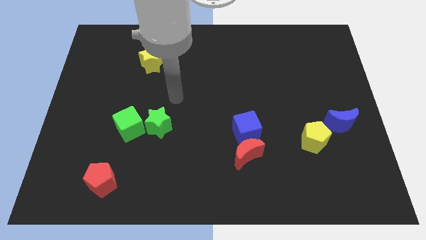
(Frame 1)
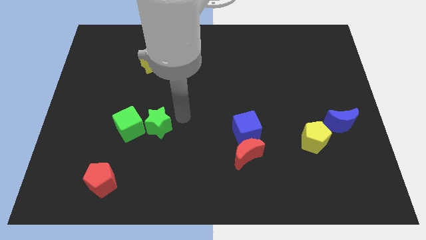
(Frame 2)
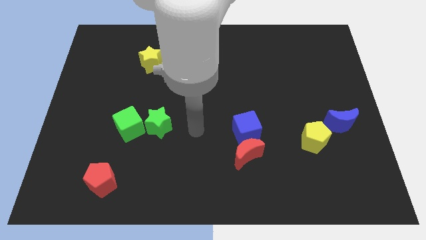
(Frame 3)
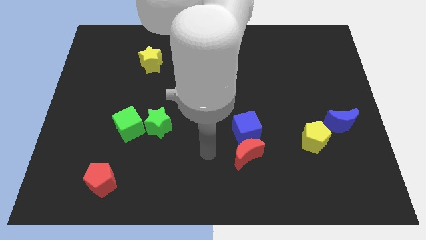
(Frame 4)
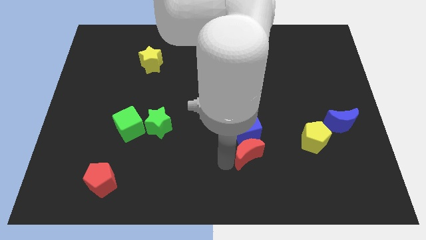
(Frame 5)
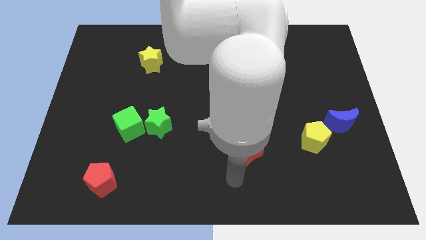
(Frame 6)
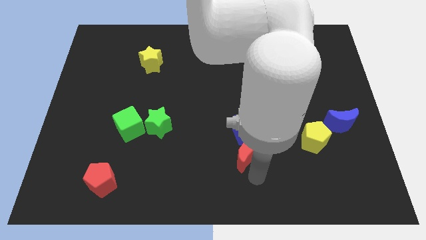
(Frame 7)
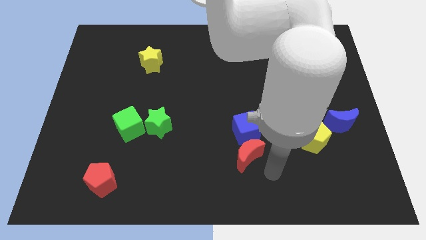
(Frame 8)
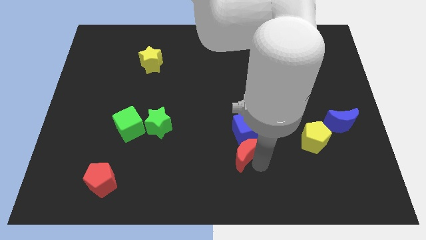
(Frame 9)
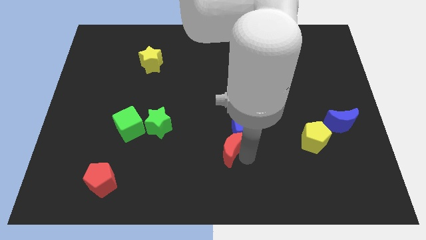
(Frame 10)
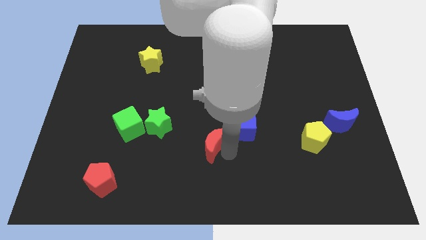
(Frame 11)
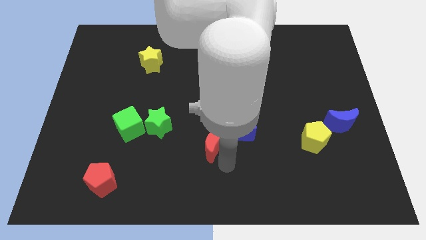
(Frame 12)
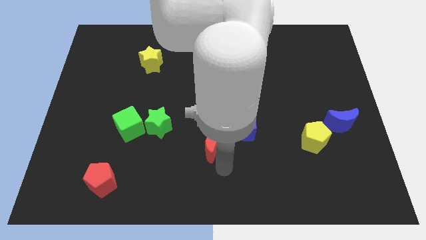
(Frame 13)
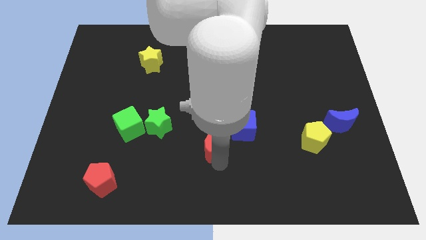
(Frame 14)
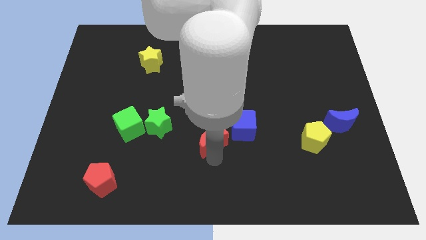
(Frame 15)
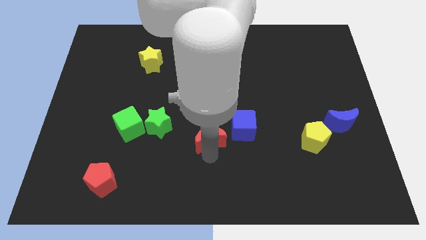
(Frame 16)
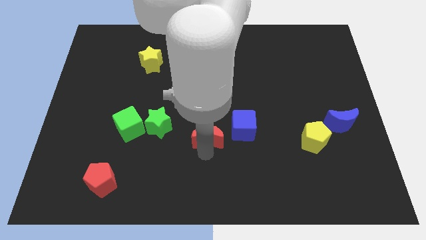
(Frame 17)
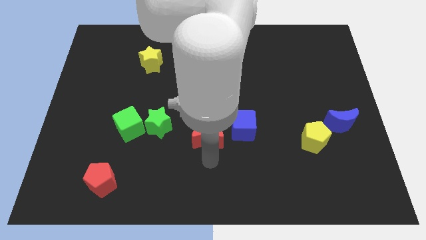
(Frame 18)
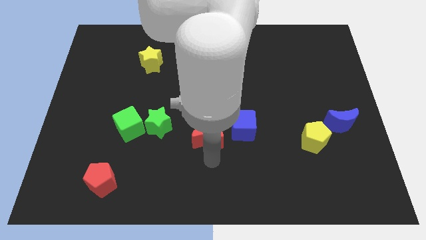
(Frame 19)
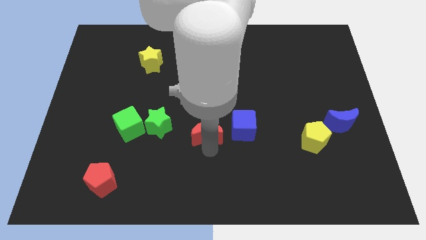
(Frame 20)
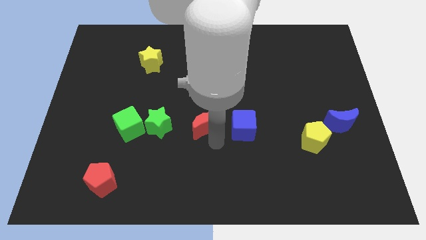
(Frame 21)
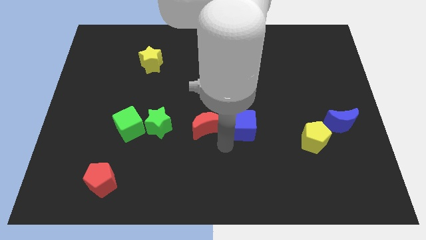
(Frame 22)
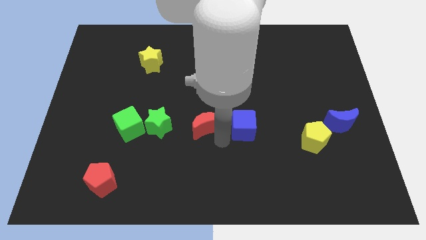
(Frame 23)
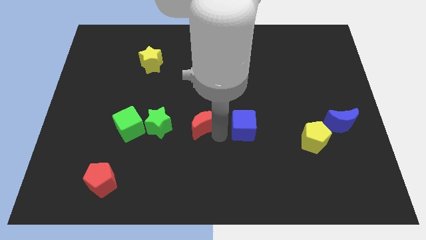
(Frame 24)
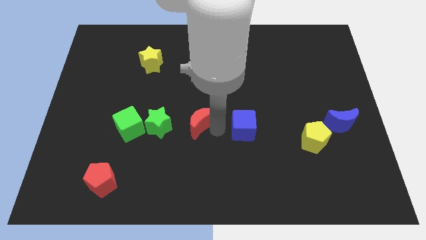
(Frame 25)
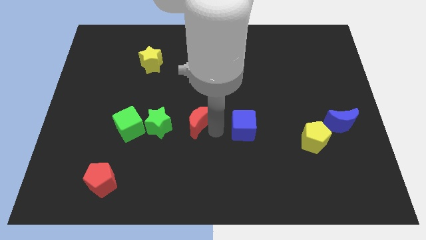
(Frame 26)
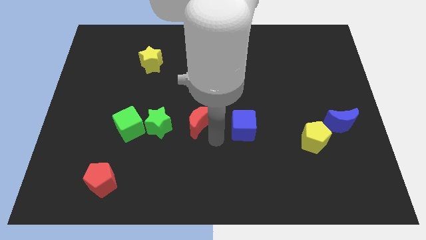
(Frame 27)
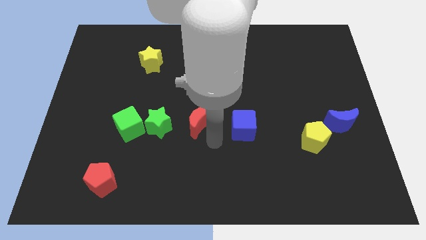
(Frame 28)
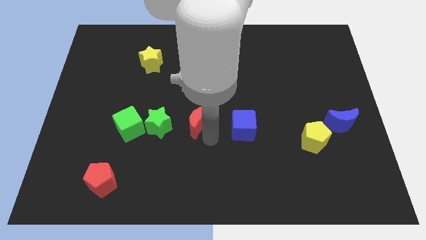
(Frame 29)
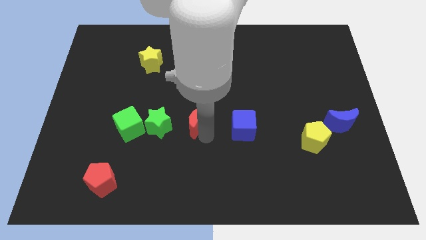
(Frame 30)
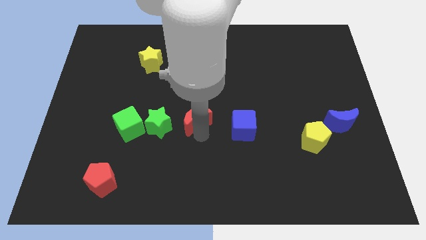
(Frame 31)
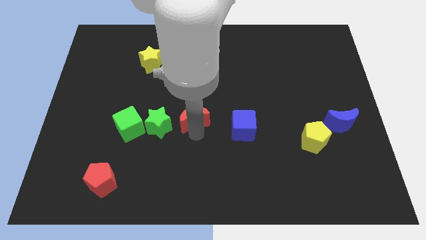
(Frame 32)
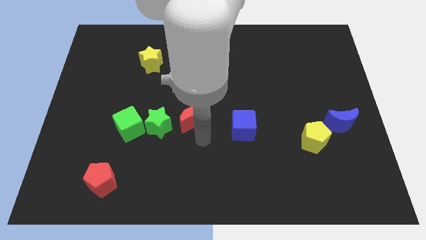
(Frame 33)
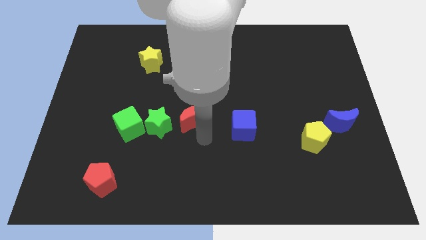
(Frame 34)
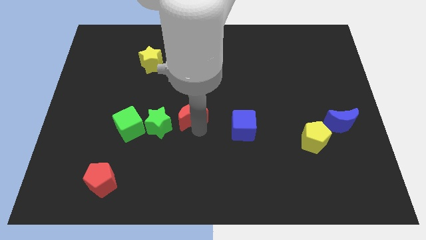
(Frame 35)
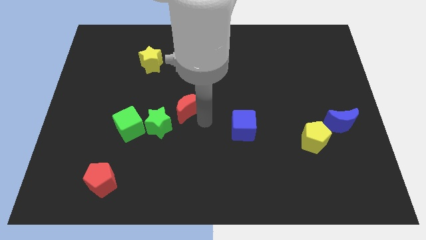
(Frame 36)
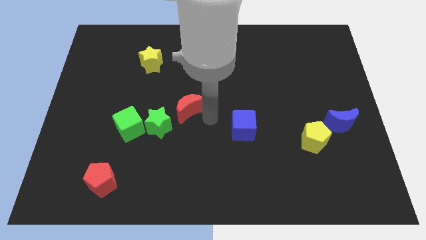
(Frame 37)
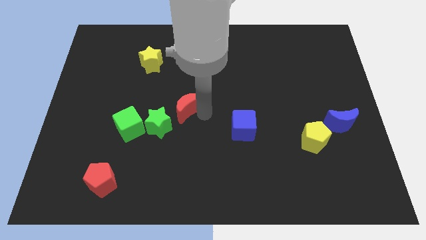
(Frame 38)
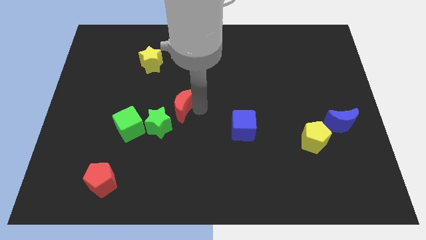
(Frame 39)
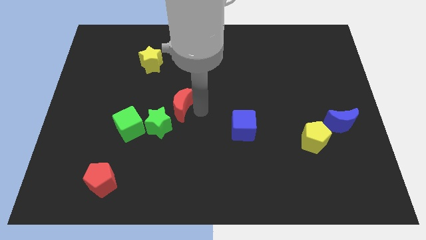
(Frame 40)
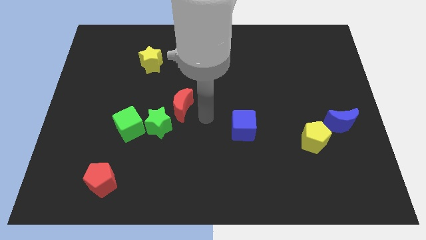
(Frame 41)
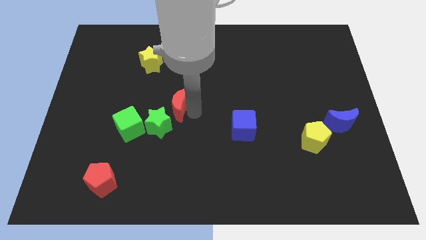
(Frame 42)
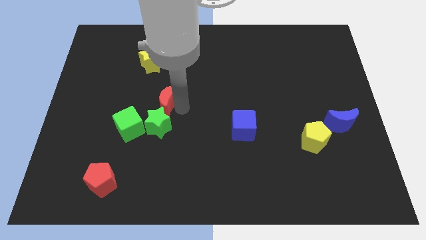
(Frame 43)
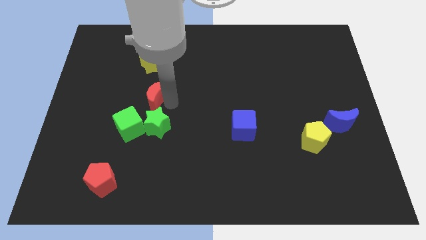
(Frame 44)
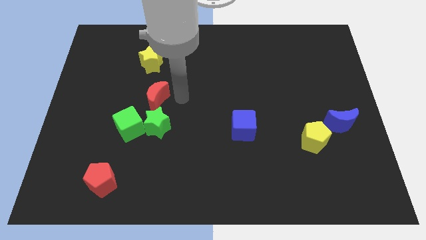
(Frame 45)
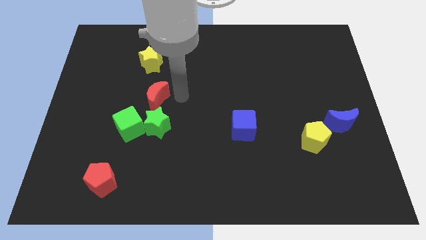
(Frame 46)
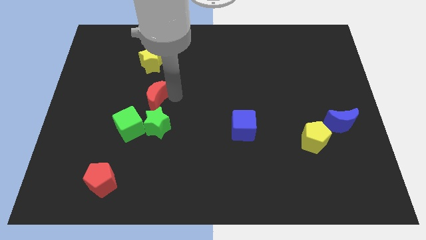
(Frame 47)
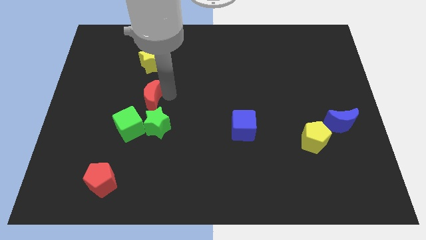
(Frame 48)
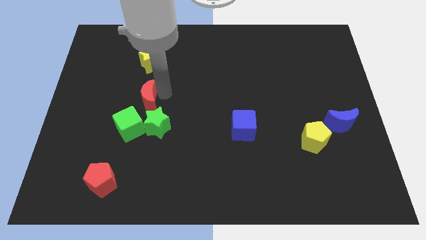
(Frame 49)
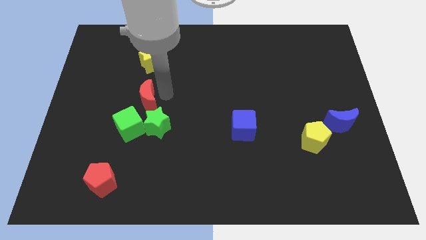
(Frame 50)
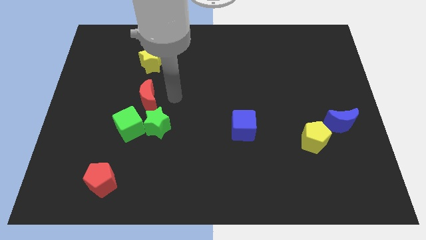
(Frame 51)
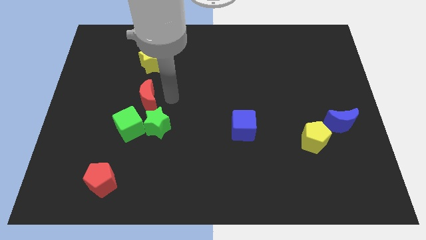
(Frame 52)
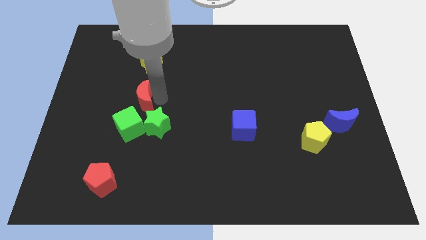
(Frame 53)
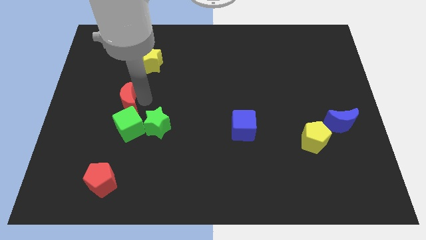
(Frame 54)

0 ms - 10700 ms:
move the red moon to the top left side of the green cube

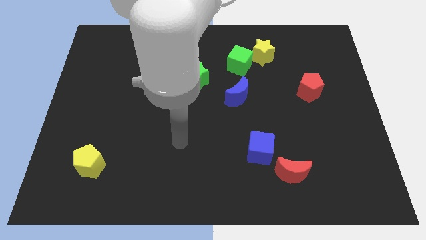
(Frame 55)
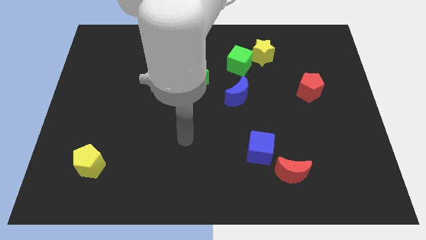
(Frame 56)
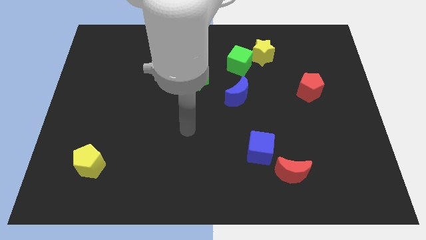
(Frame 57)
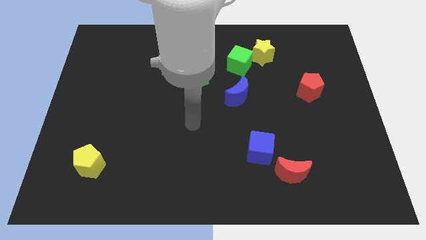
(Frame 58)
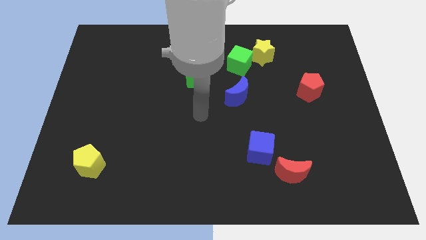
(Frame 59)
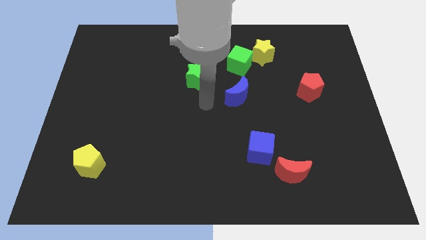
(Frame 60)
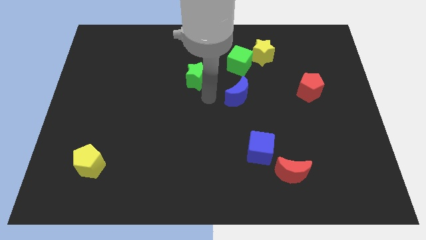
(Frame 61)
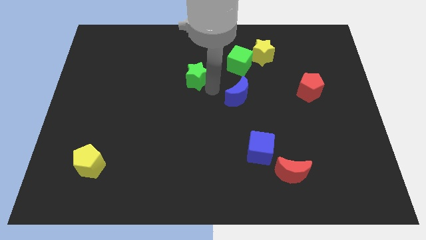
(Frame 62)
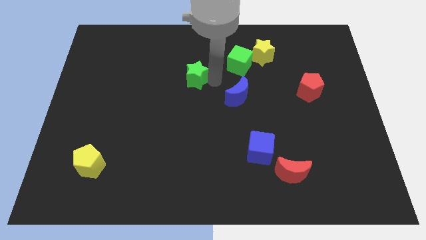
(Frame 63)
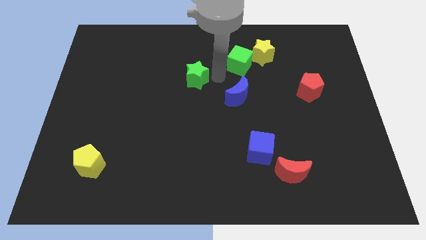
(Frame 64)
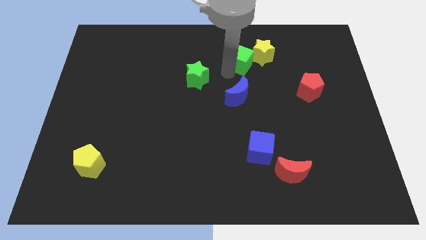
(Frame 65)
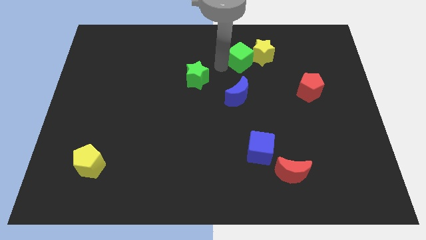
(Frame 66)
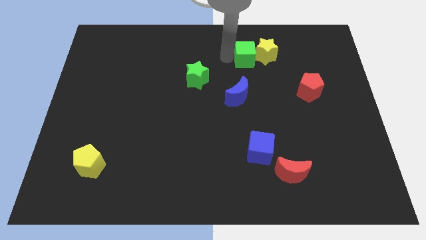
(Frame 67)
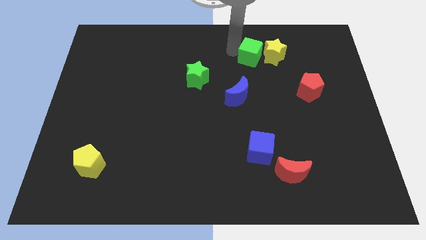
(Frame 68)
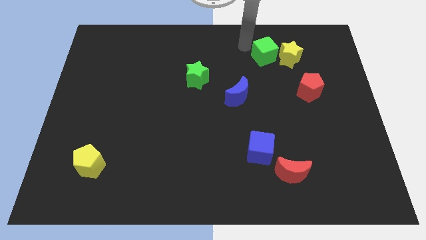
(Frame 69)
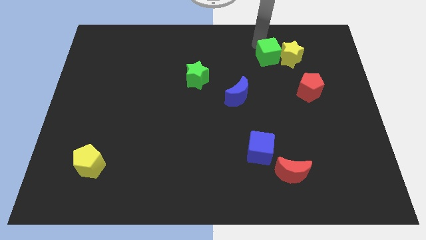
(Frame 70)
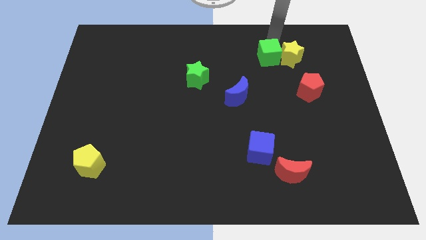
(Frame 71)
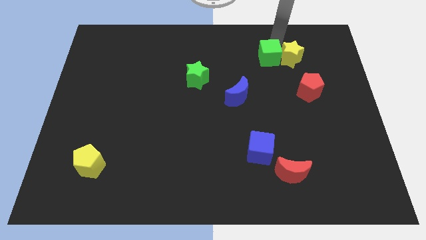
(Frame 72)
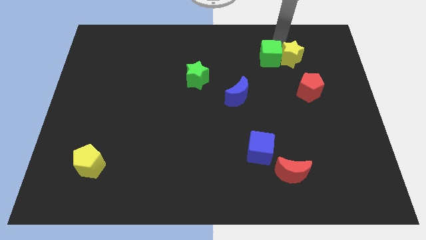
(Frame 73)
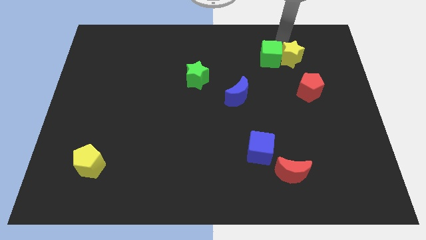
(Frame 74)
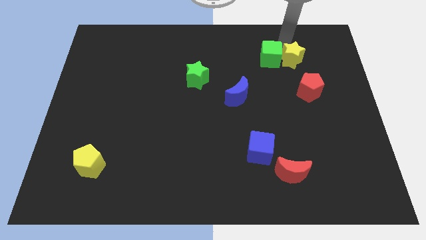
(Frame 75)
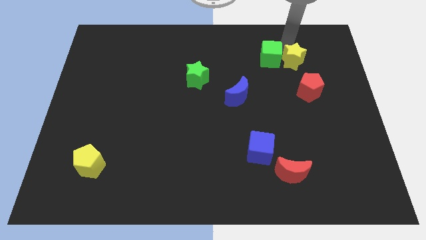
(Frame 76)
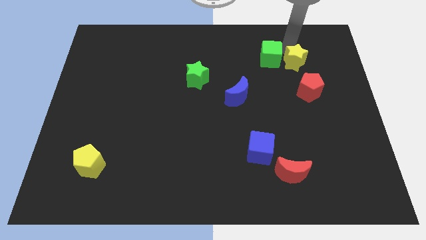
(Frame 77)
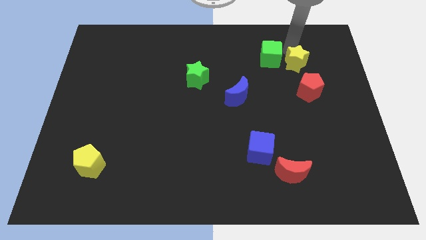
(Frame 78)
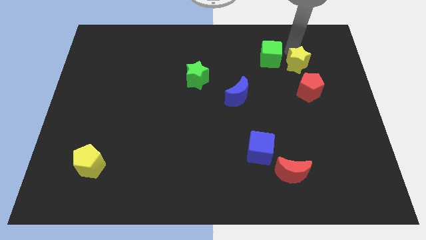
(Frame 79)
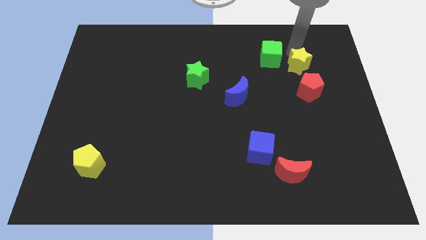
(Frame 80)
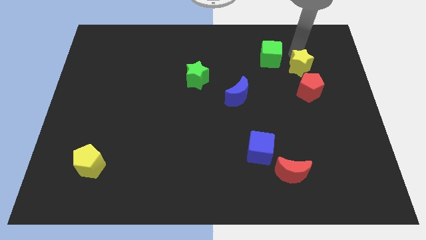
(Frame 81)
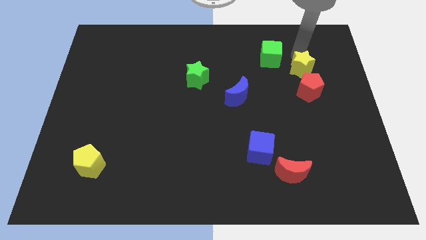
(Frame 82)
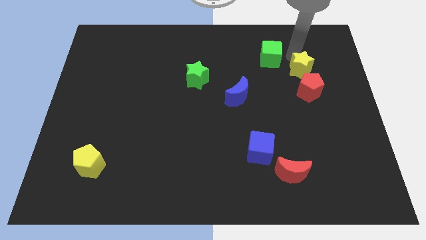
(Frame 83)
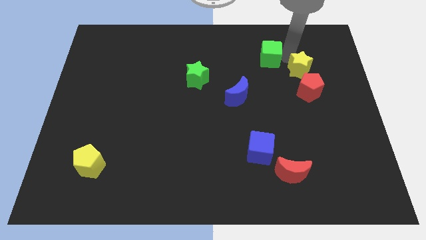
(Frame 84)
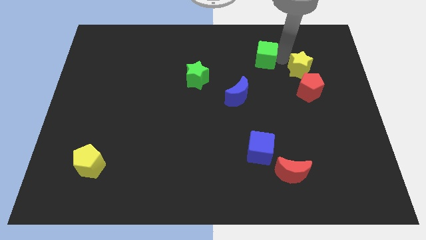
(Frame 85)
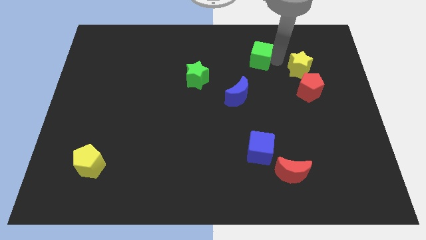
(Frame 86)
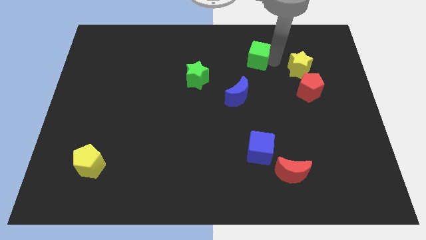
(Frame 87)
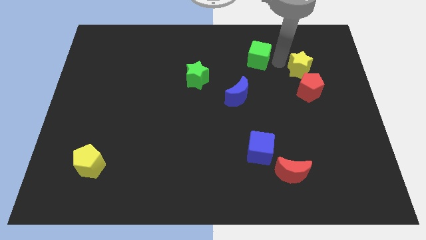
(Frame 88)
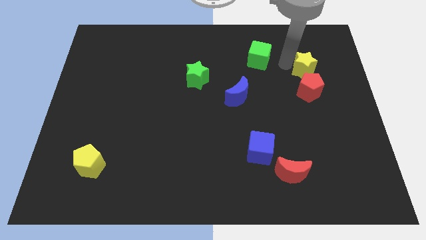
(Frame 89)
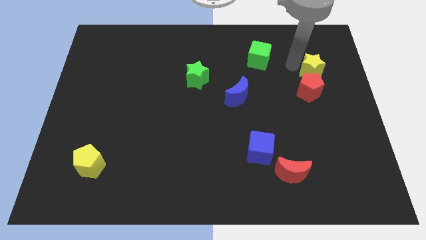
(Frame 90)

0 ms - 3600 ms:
move the yellow star diagonally up and to the right of the red pentagon
